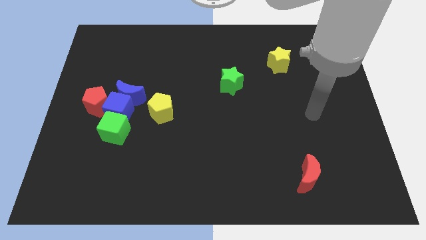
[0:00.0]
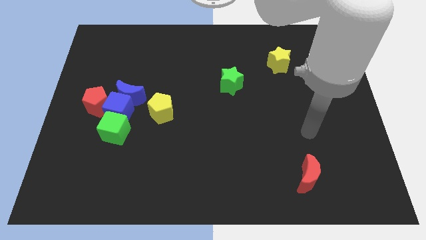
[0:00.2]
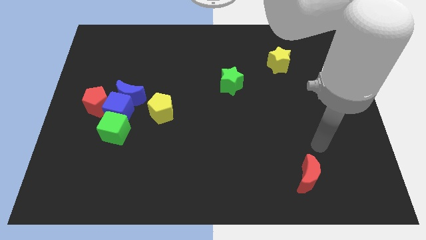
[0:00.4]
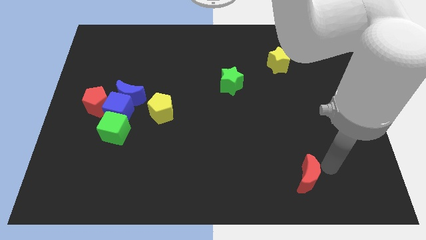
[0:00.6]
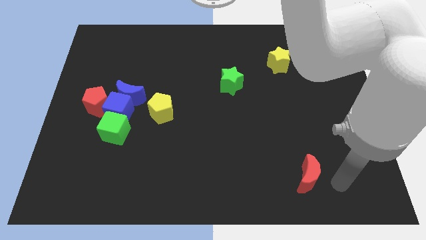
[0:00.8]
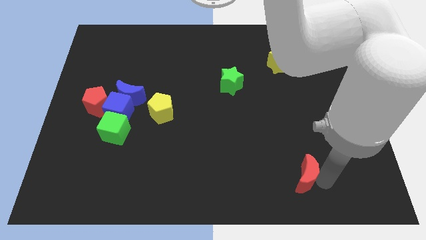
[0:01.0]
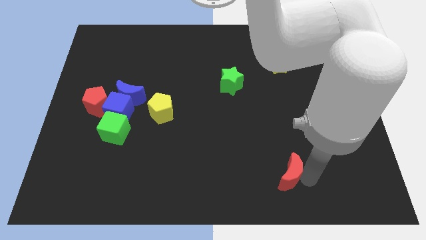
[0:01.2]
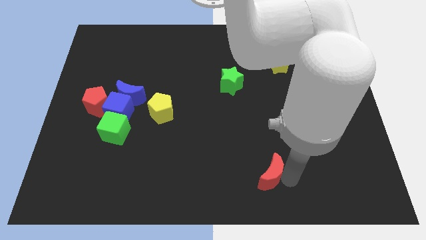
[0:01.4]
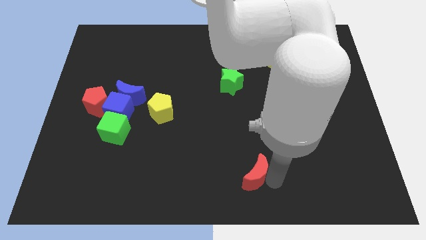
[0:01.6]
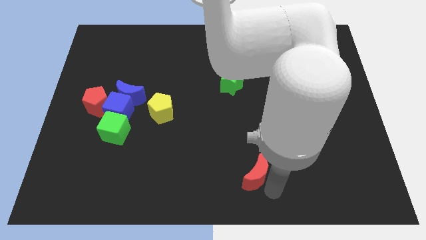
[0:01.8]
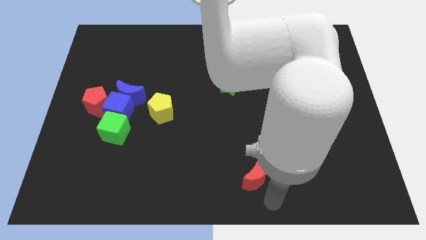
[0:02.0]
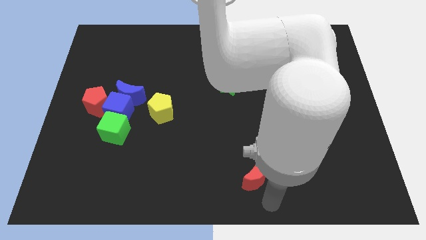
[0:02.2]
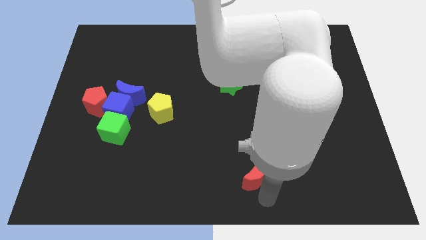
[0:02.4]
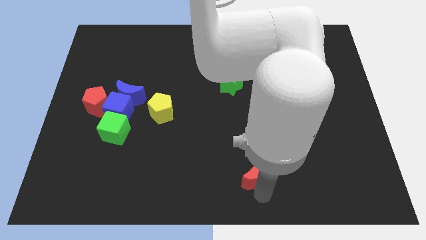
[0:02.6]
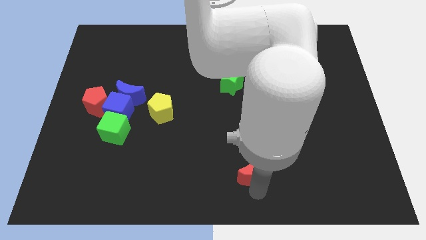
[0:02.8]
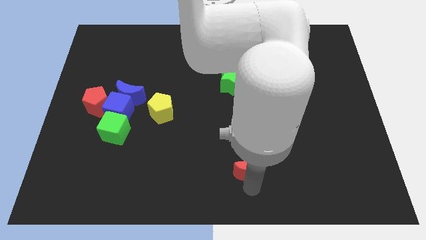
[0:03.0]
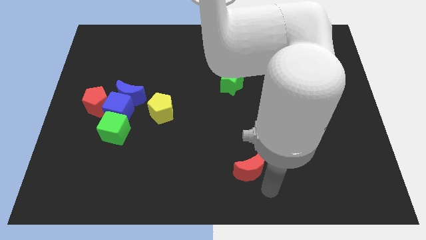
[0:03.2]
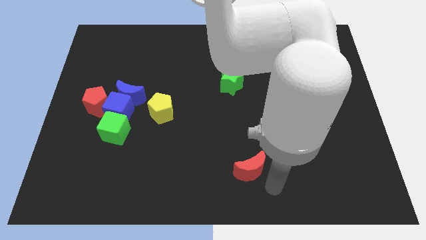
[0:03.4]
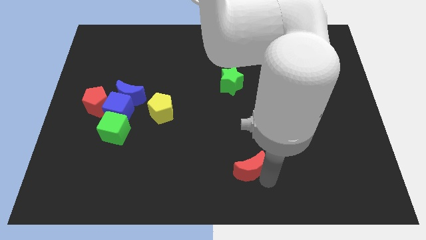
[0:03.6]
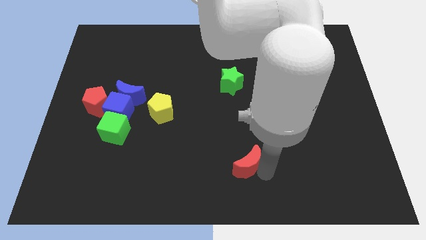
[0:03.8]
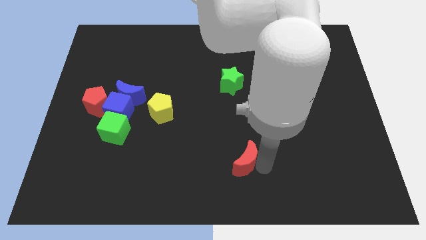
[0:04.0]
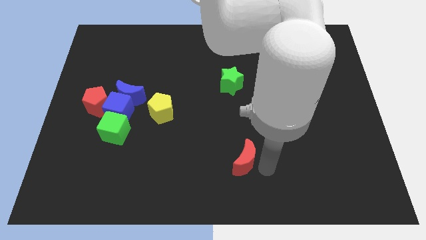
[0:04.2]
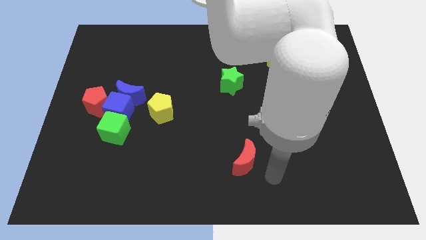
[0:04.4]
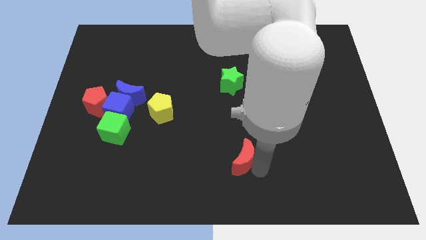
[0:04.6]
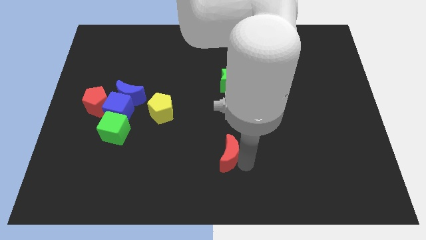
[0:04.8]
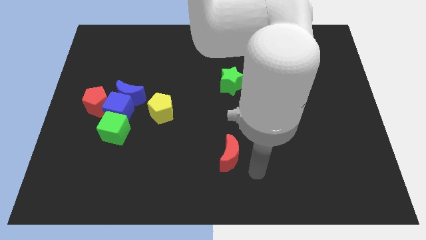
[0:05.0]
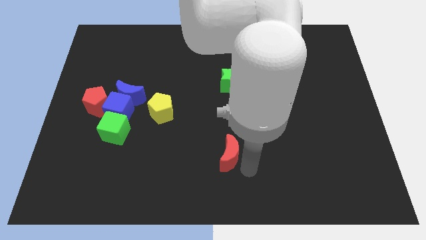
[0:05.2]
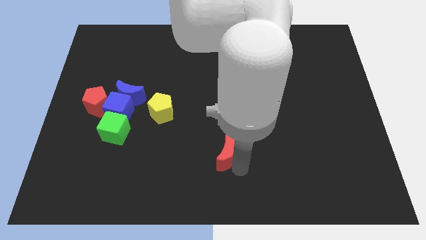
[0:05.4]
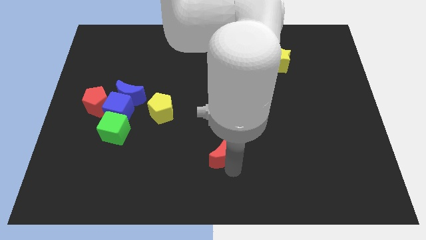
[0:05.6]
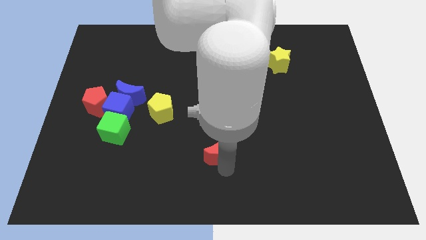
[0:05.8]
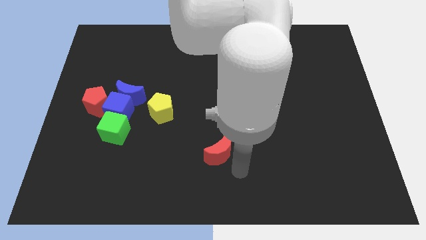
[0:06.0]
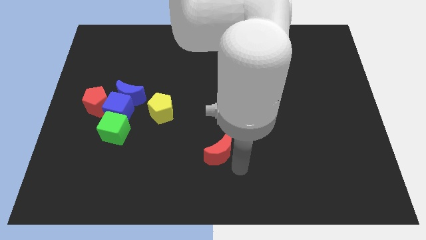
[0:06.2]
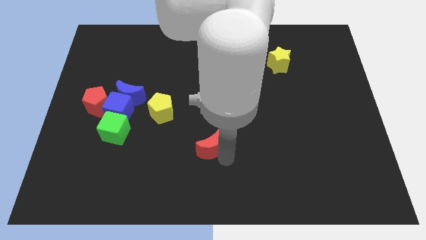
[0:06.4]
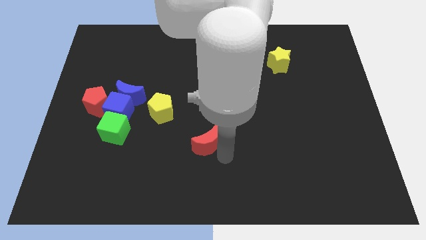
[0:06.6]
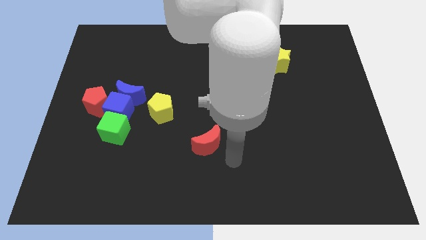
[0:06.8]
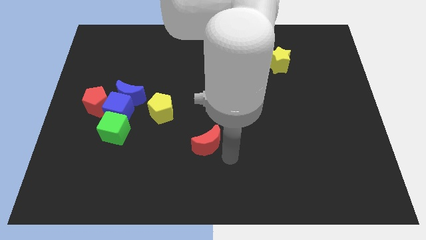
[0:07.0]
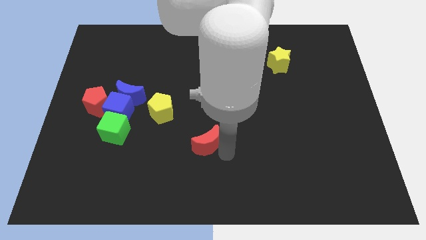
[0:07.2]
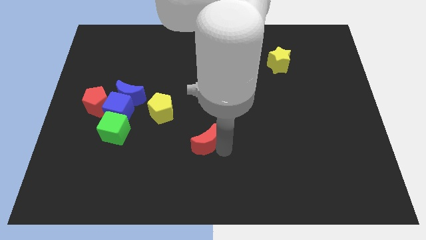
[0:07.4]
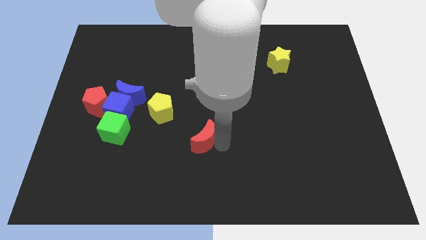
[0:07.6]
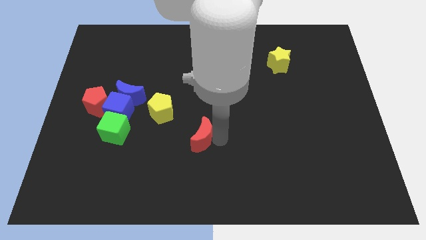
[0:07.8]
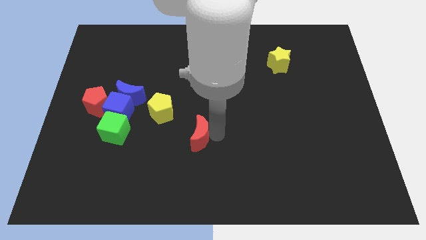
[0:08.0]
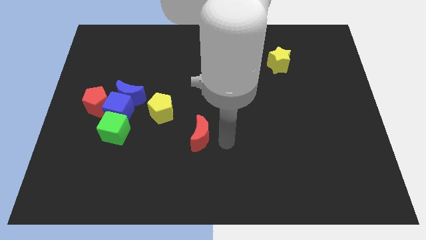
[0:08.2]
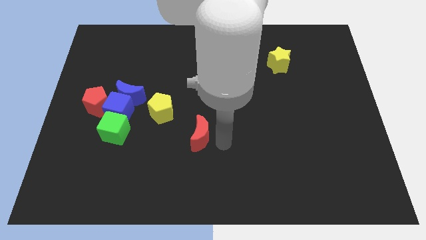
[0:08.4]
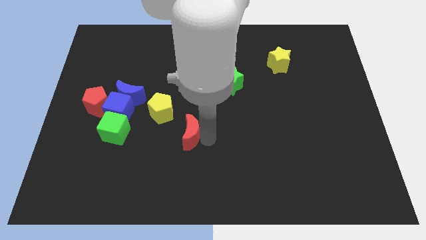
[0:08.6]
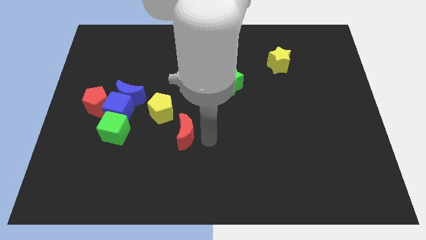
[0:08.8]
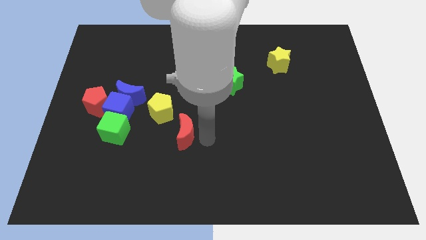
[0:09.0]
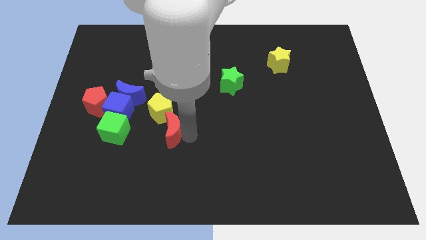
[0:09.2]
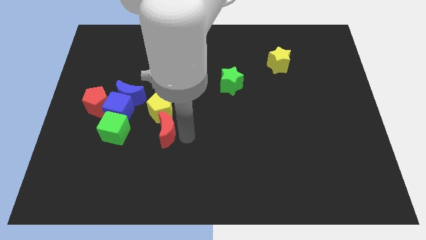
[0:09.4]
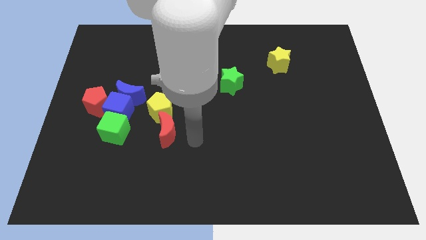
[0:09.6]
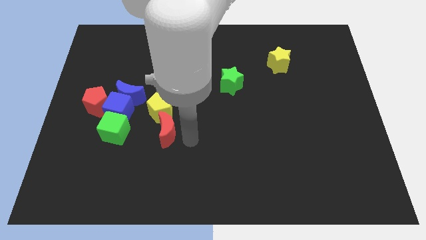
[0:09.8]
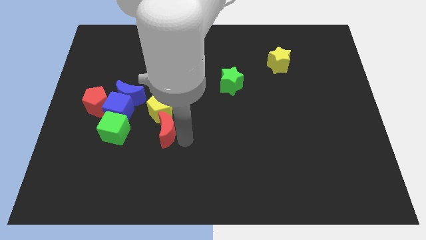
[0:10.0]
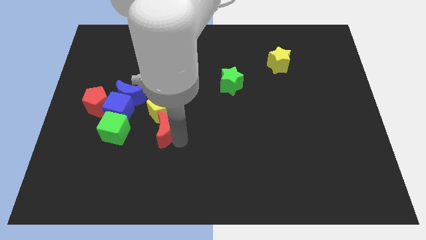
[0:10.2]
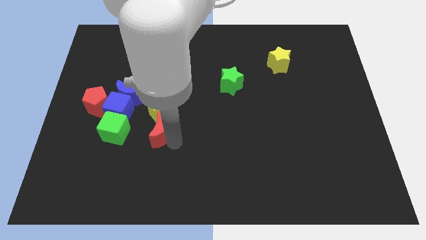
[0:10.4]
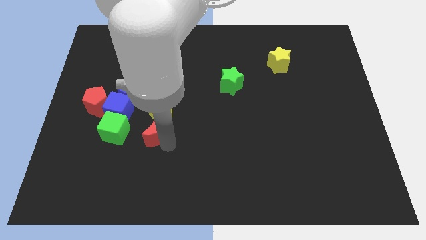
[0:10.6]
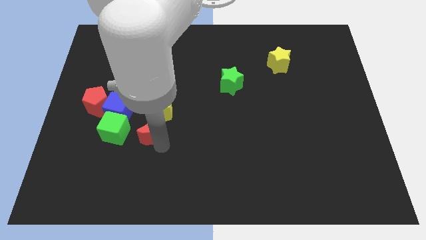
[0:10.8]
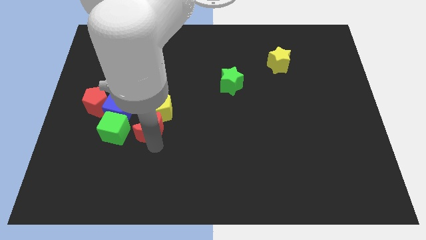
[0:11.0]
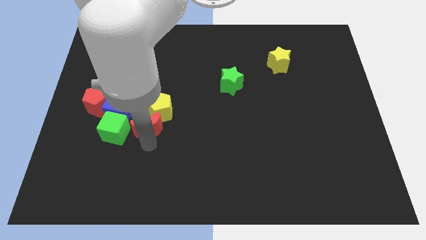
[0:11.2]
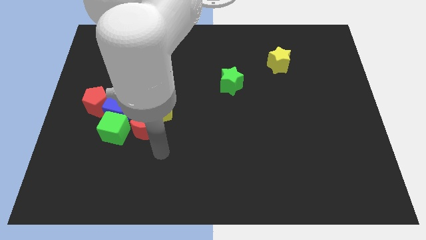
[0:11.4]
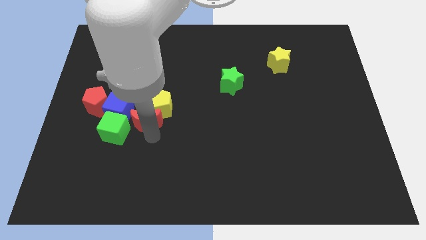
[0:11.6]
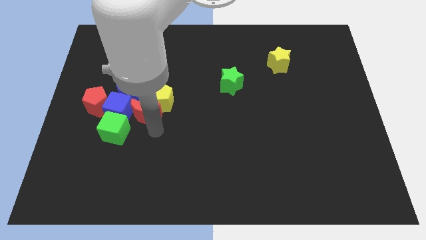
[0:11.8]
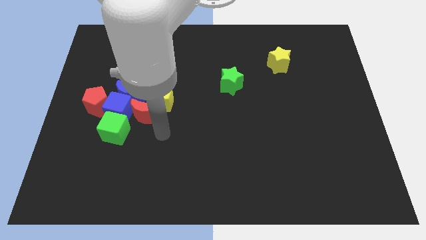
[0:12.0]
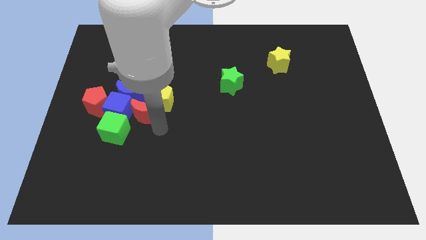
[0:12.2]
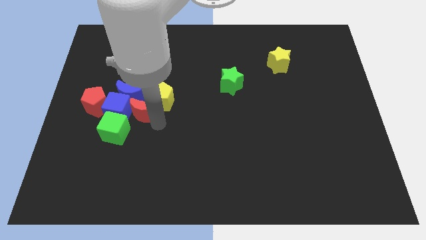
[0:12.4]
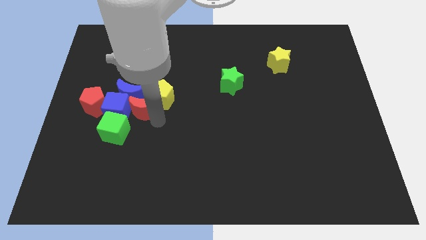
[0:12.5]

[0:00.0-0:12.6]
put the red moon close to the blue moon
